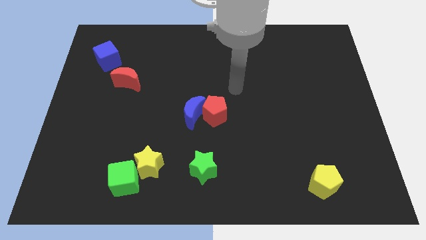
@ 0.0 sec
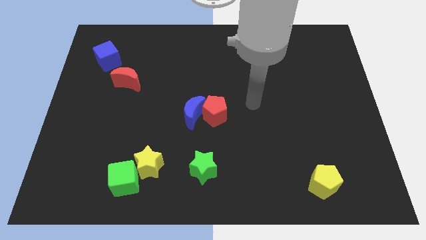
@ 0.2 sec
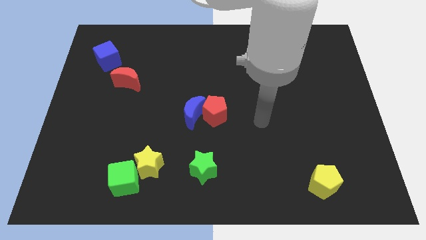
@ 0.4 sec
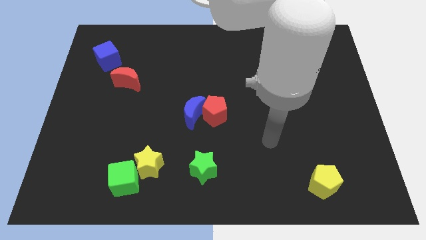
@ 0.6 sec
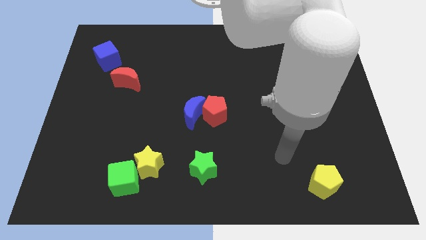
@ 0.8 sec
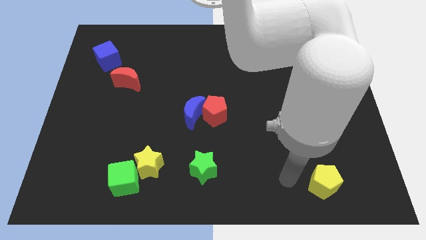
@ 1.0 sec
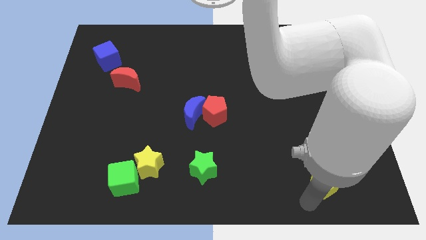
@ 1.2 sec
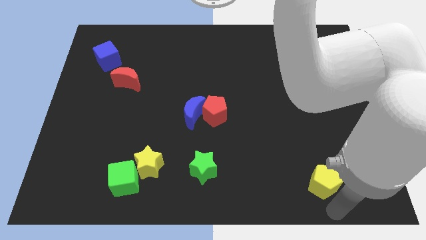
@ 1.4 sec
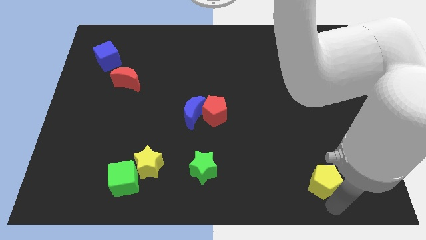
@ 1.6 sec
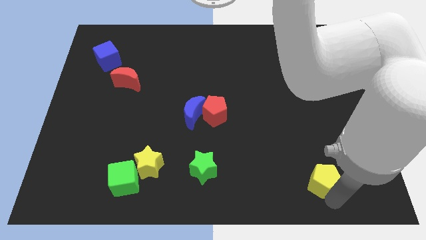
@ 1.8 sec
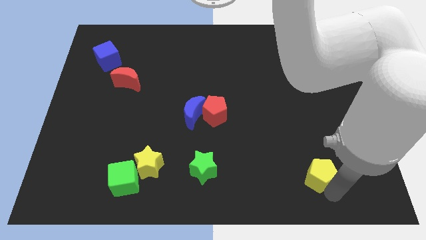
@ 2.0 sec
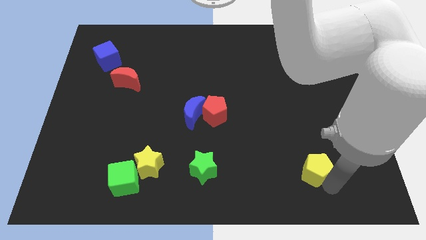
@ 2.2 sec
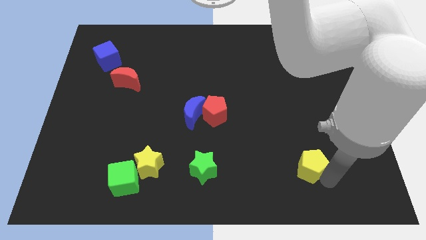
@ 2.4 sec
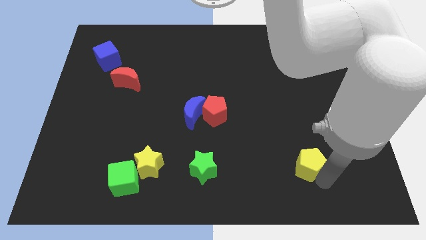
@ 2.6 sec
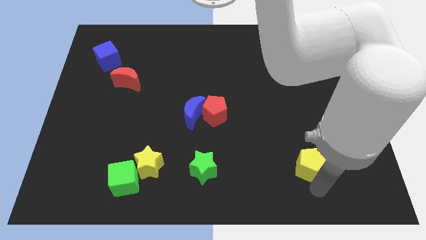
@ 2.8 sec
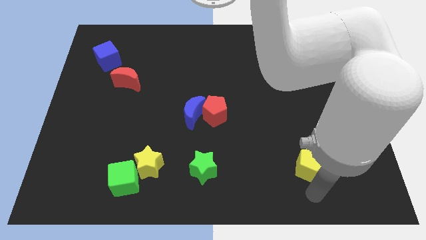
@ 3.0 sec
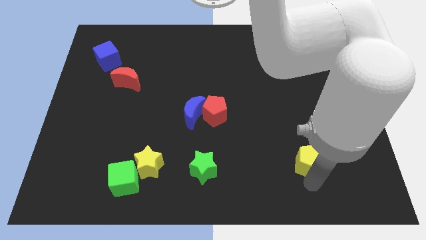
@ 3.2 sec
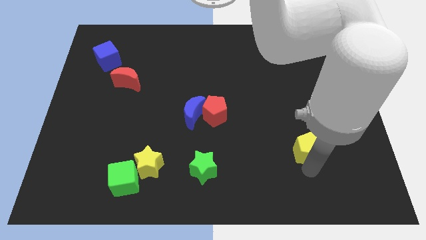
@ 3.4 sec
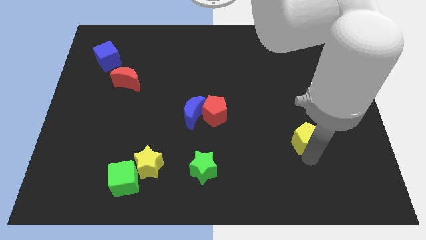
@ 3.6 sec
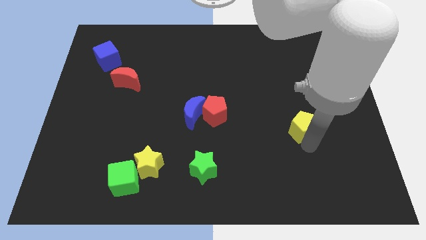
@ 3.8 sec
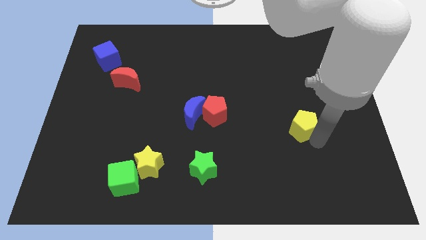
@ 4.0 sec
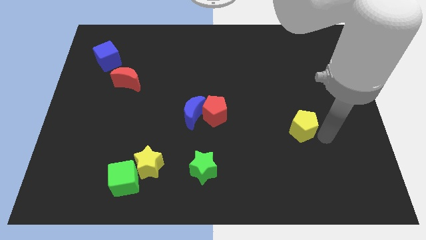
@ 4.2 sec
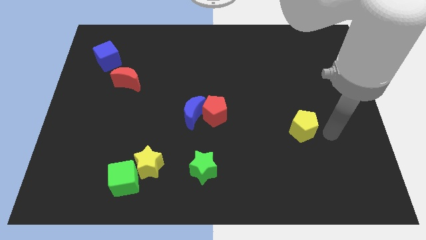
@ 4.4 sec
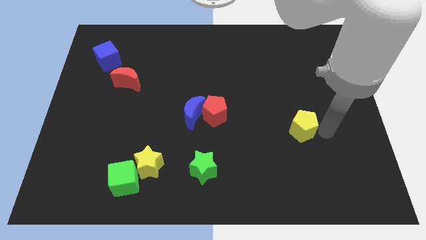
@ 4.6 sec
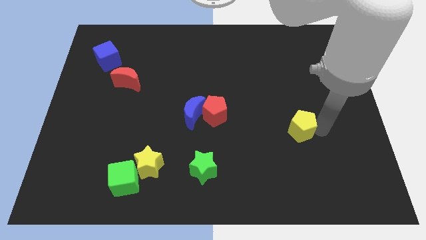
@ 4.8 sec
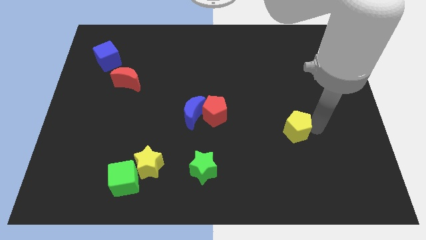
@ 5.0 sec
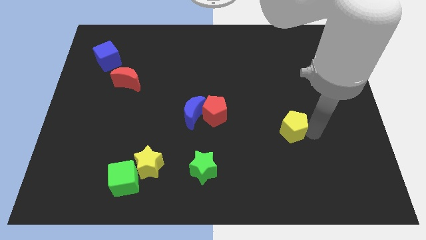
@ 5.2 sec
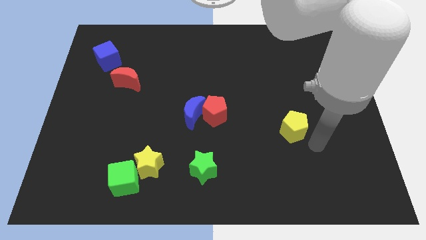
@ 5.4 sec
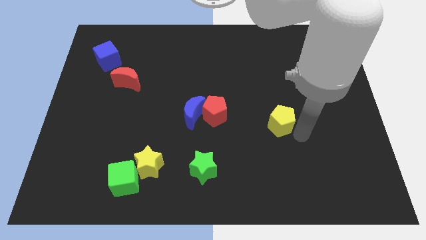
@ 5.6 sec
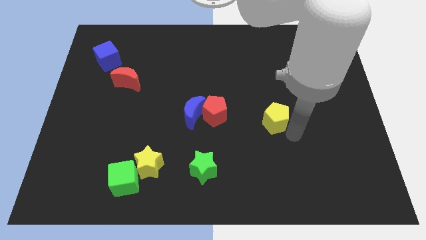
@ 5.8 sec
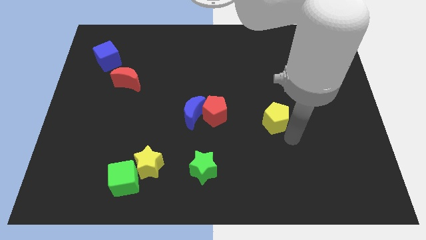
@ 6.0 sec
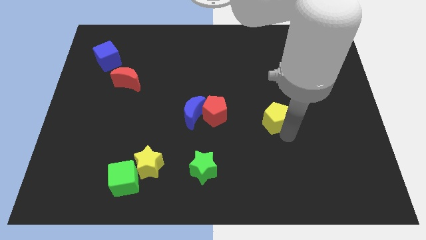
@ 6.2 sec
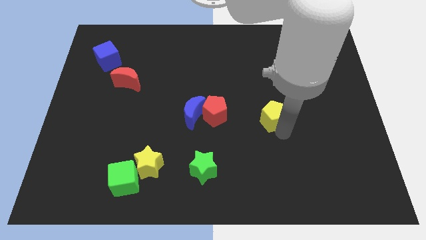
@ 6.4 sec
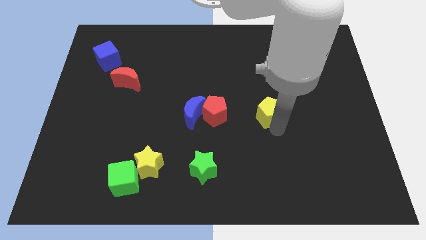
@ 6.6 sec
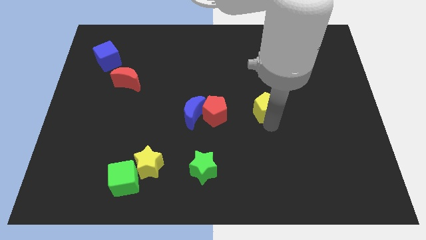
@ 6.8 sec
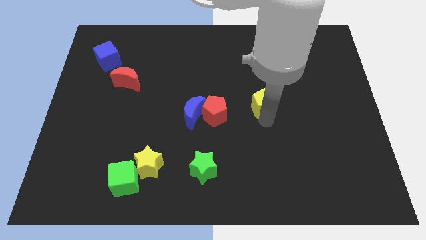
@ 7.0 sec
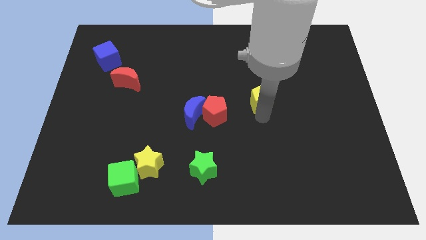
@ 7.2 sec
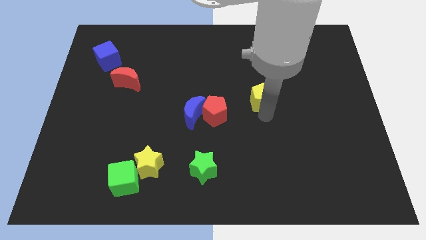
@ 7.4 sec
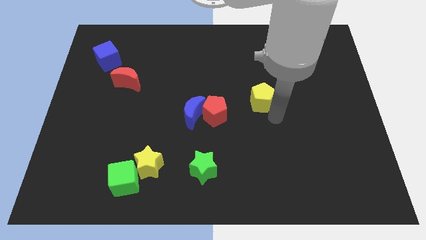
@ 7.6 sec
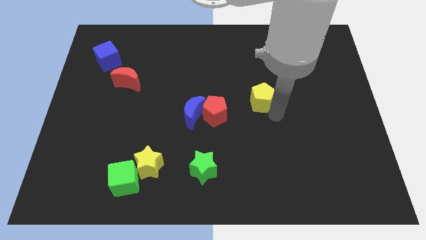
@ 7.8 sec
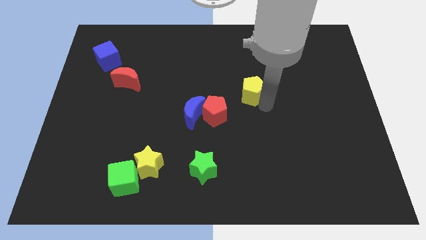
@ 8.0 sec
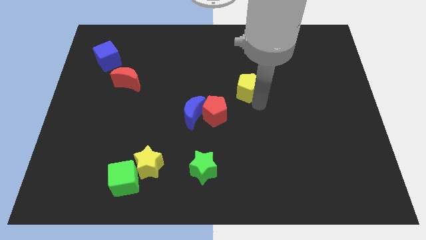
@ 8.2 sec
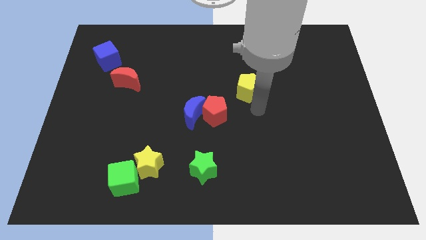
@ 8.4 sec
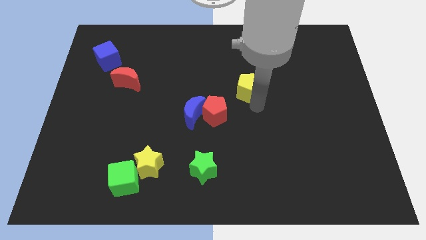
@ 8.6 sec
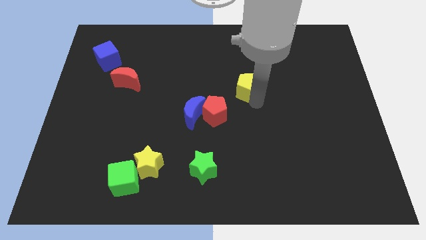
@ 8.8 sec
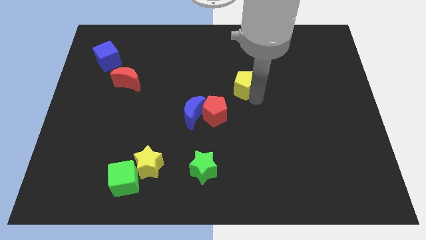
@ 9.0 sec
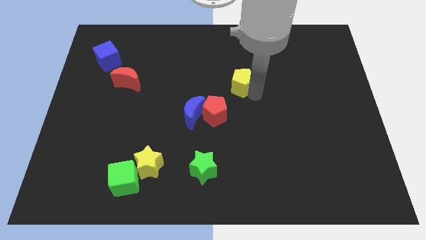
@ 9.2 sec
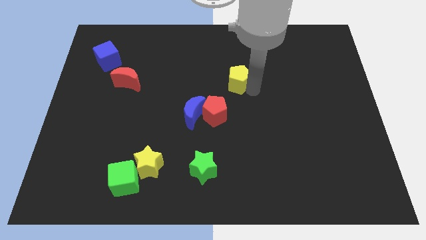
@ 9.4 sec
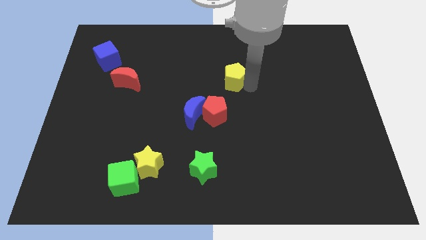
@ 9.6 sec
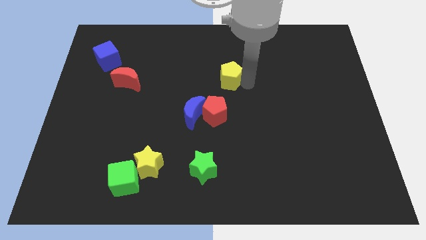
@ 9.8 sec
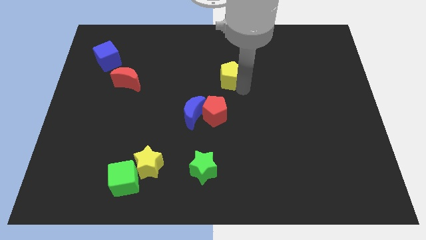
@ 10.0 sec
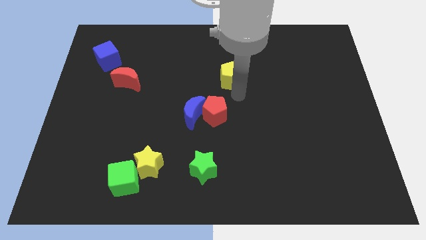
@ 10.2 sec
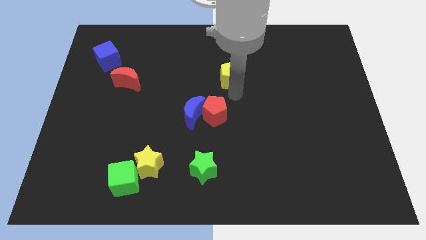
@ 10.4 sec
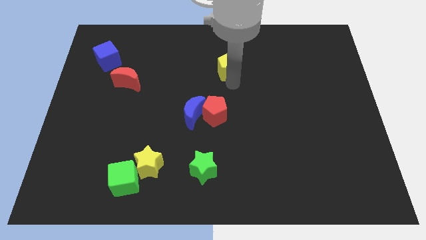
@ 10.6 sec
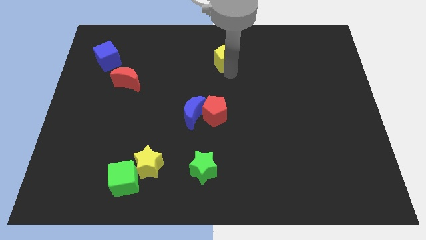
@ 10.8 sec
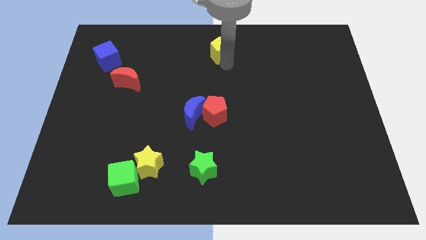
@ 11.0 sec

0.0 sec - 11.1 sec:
move the yellow pentagon to the top
